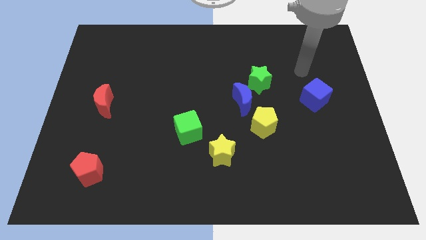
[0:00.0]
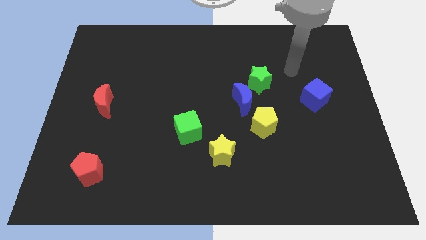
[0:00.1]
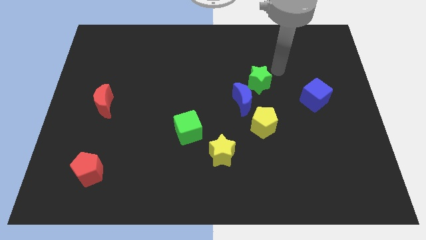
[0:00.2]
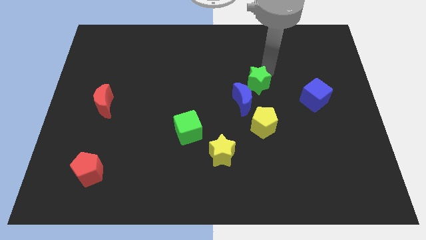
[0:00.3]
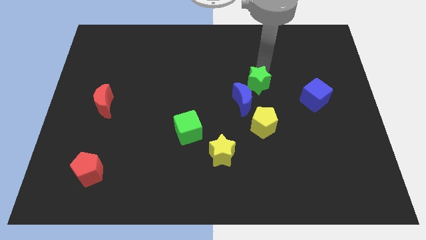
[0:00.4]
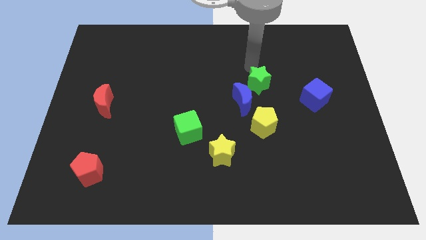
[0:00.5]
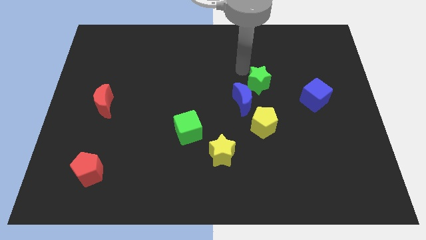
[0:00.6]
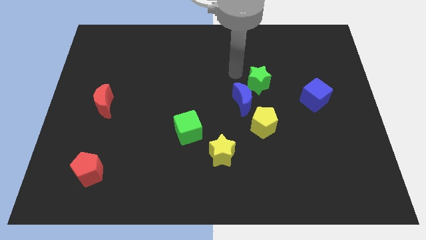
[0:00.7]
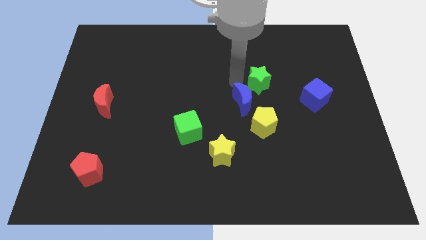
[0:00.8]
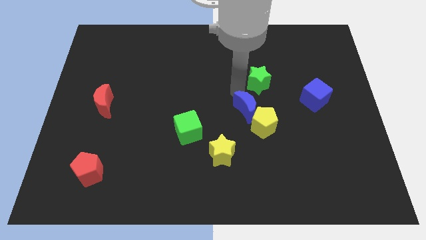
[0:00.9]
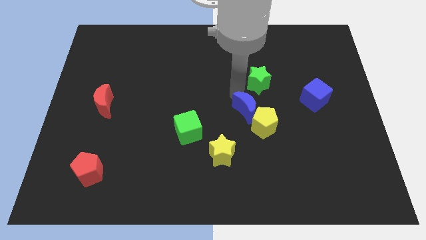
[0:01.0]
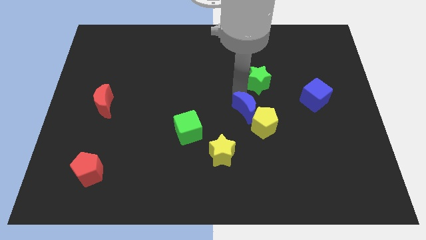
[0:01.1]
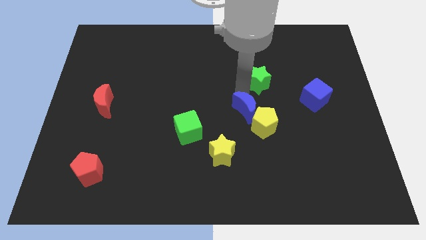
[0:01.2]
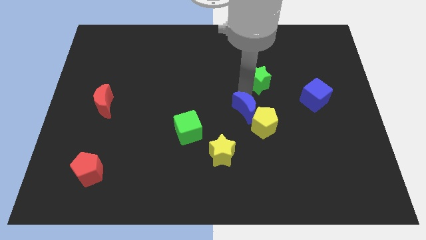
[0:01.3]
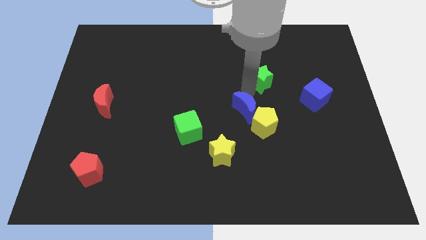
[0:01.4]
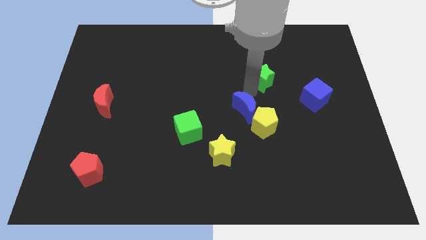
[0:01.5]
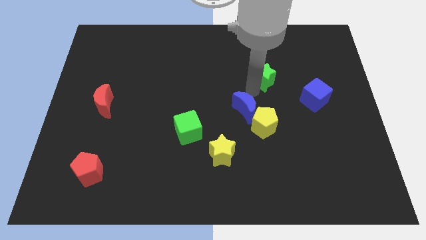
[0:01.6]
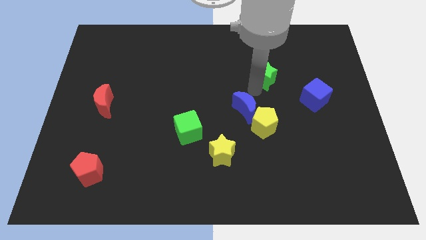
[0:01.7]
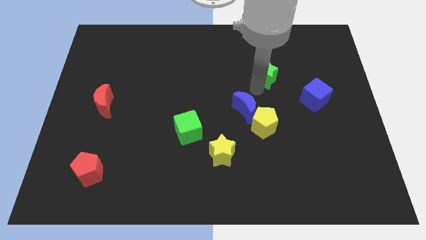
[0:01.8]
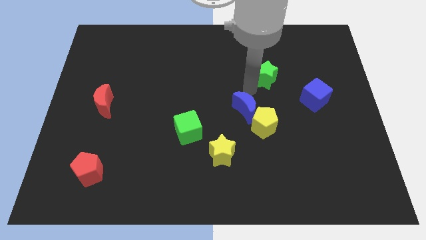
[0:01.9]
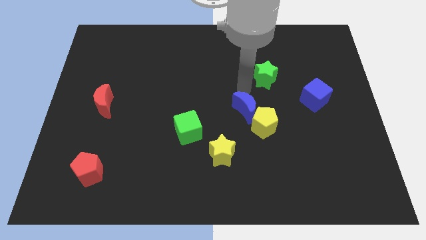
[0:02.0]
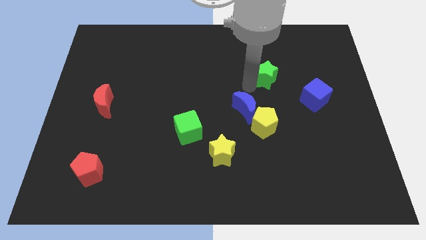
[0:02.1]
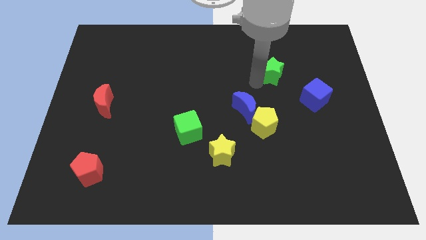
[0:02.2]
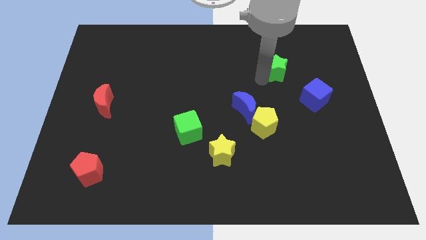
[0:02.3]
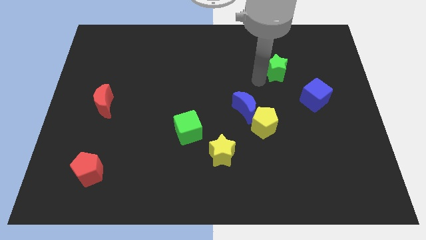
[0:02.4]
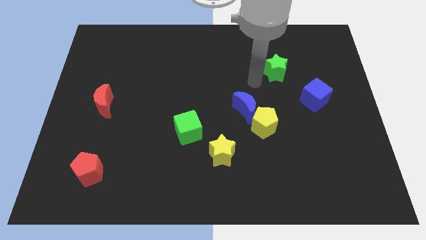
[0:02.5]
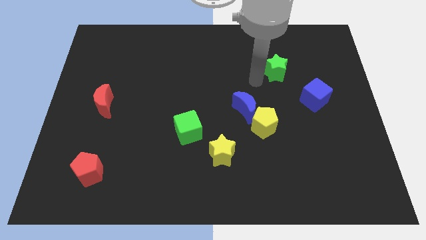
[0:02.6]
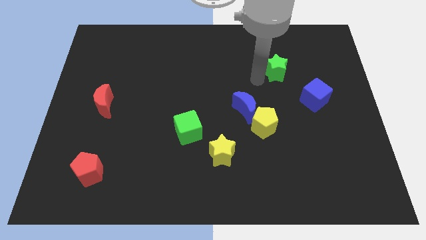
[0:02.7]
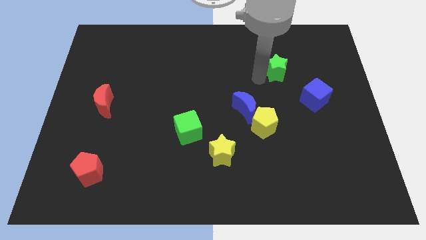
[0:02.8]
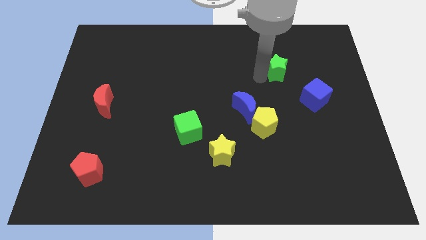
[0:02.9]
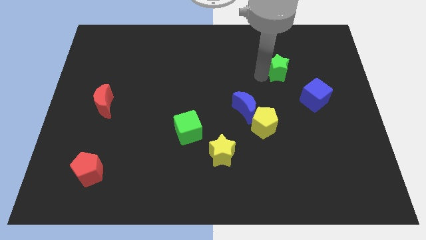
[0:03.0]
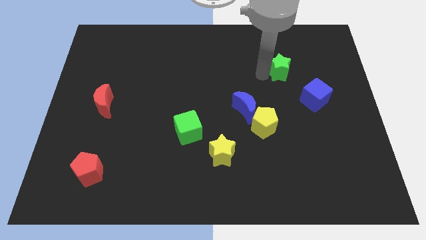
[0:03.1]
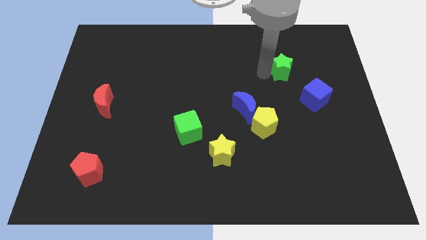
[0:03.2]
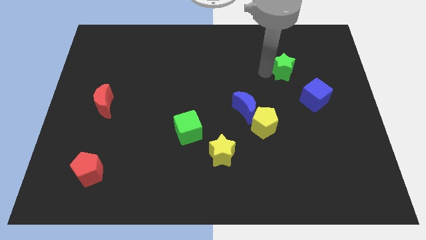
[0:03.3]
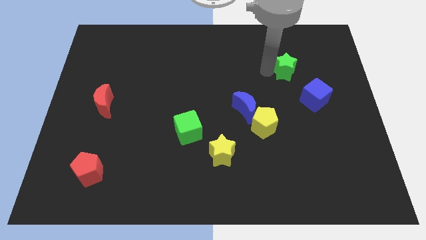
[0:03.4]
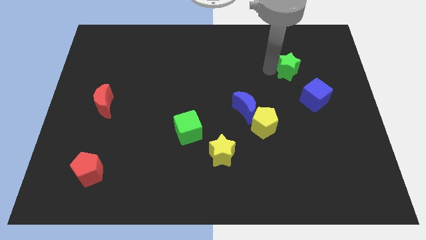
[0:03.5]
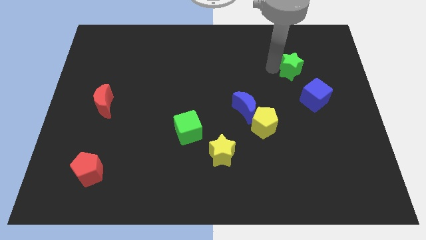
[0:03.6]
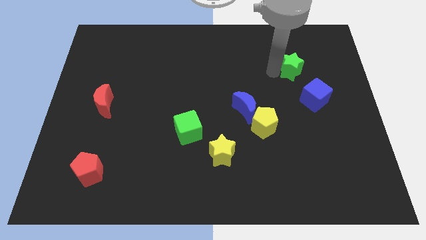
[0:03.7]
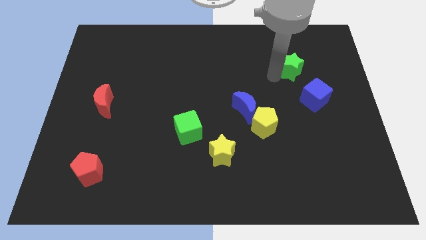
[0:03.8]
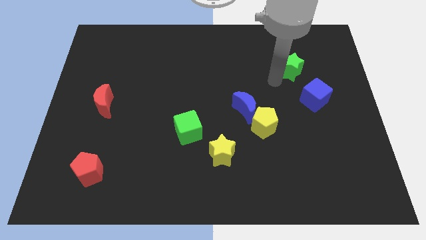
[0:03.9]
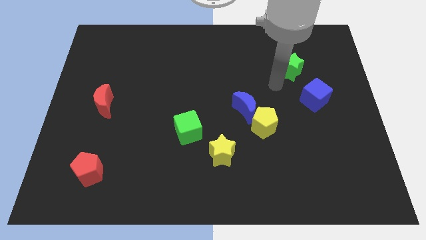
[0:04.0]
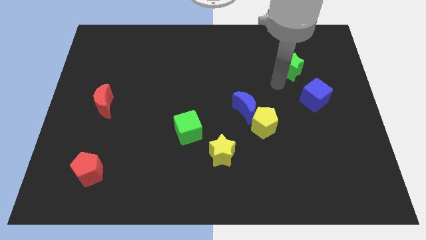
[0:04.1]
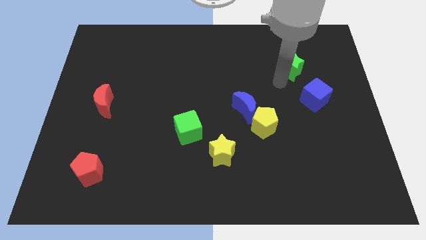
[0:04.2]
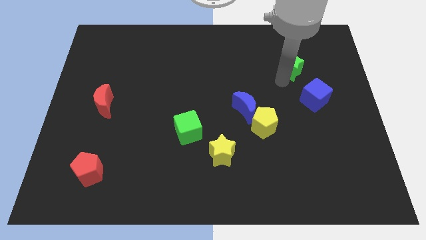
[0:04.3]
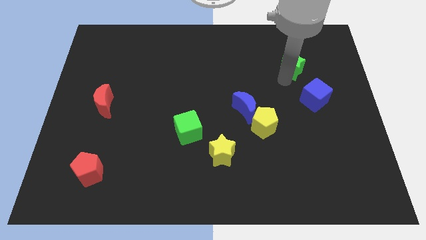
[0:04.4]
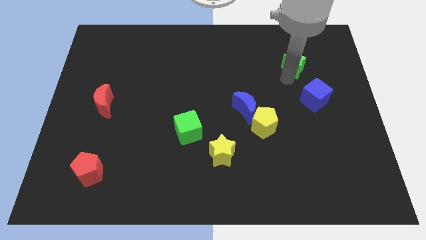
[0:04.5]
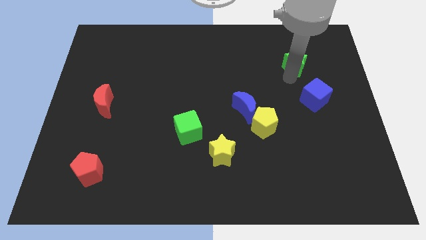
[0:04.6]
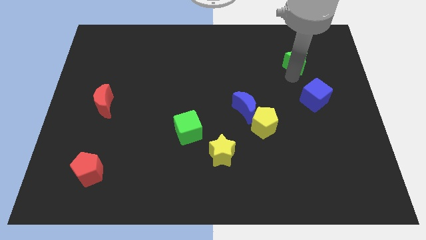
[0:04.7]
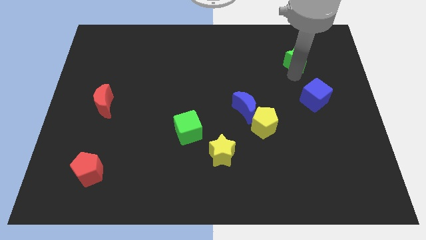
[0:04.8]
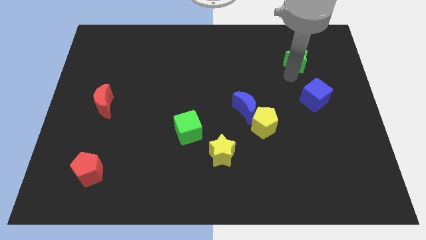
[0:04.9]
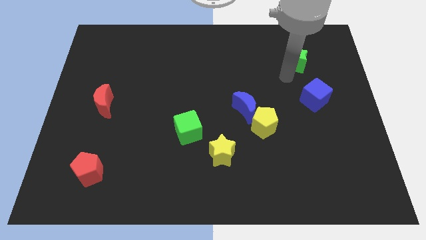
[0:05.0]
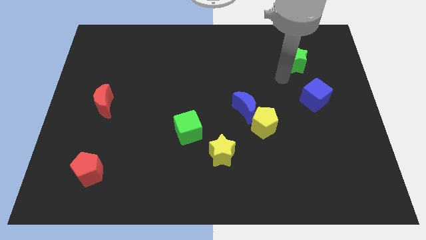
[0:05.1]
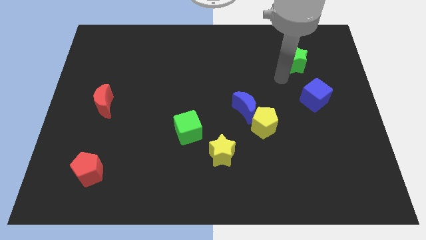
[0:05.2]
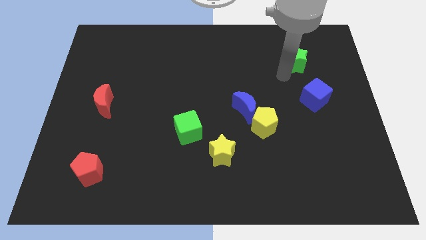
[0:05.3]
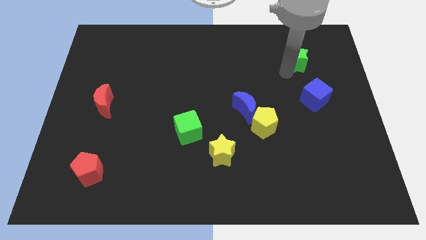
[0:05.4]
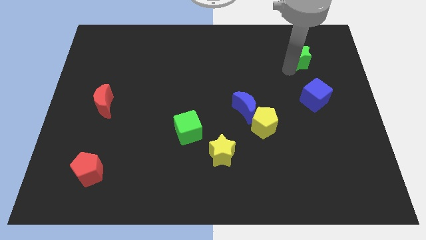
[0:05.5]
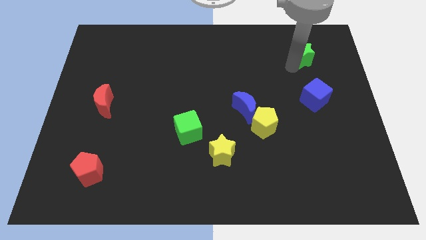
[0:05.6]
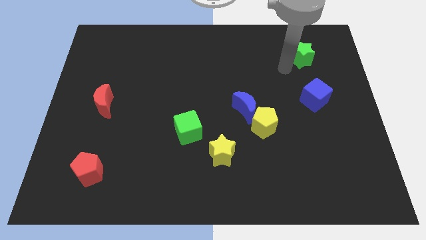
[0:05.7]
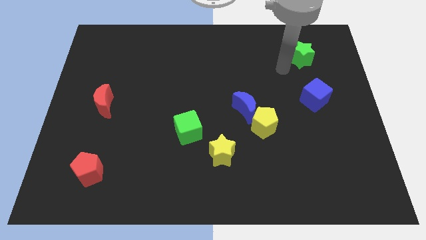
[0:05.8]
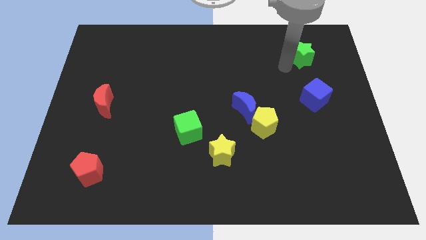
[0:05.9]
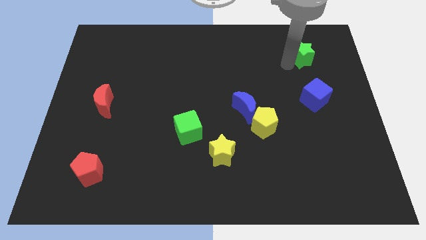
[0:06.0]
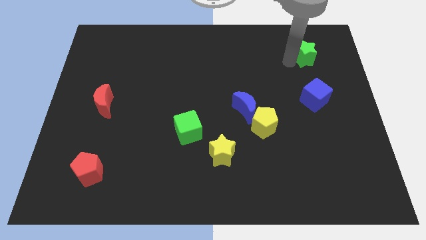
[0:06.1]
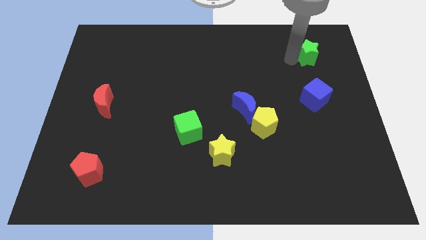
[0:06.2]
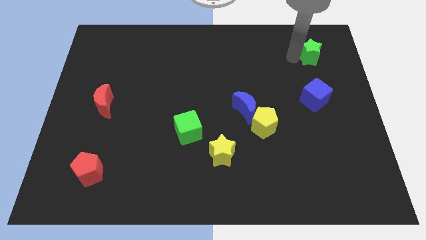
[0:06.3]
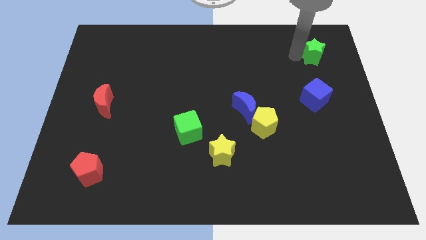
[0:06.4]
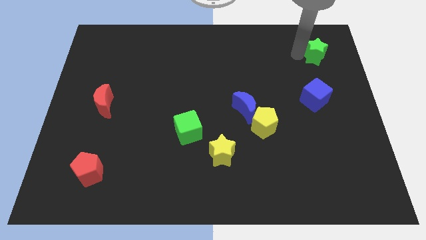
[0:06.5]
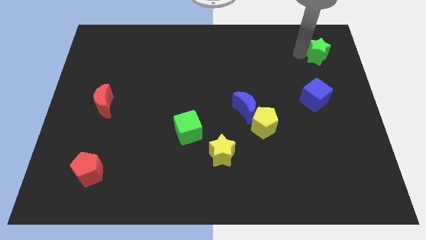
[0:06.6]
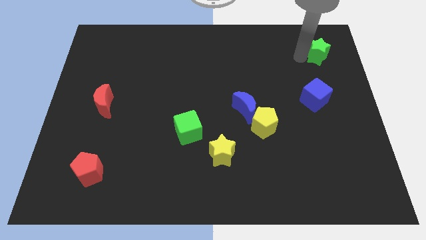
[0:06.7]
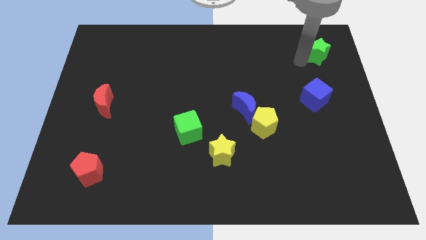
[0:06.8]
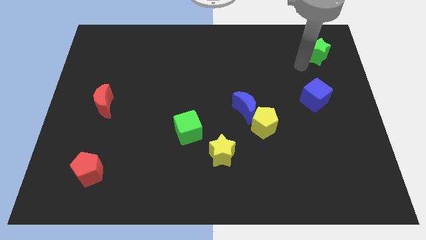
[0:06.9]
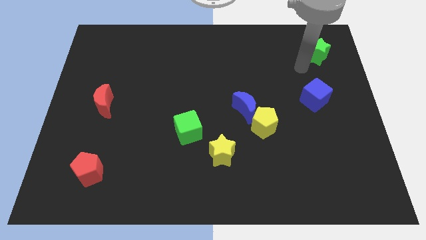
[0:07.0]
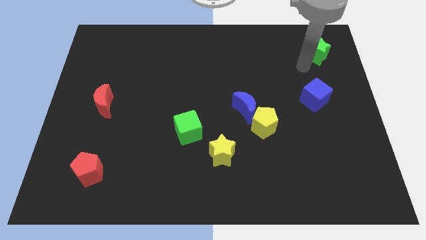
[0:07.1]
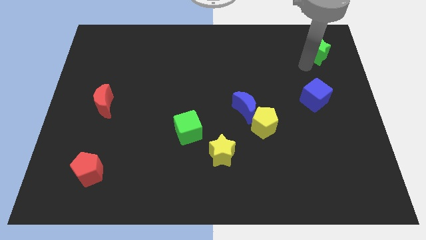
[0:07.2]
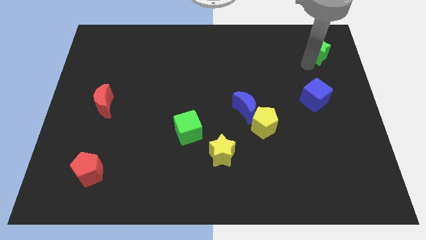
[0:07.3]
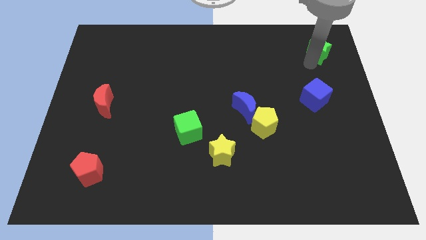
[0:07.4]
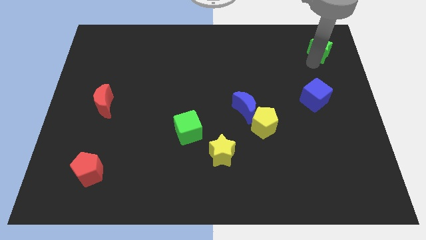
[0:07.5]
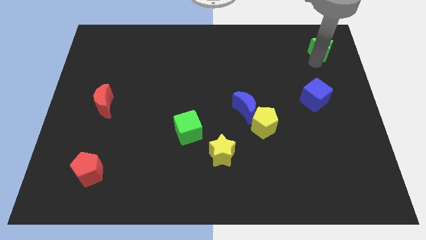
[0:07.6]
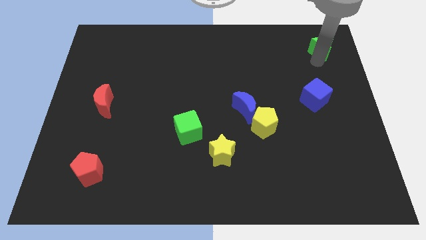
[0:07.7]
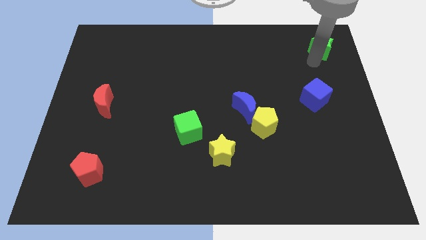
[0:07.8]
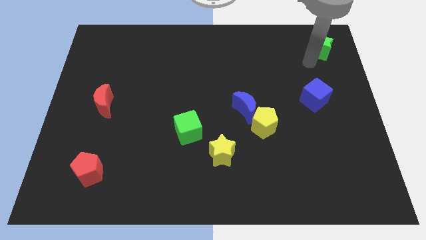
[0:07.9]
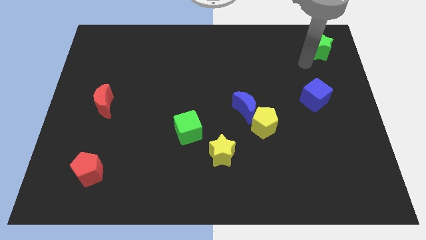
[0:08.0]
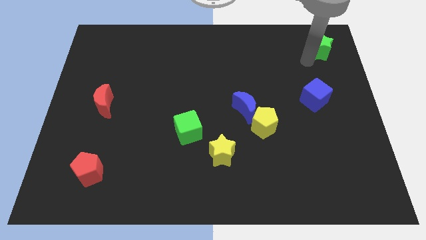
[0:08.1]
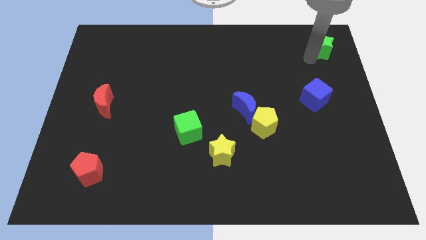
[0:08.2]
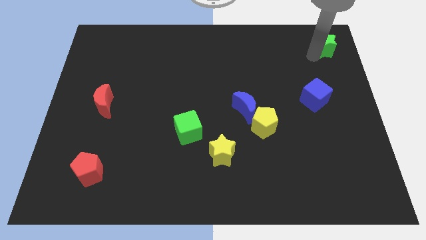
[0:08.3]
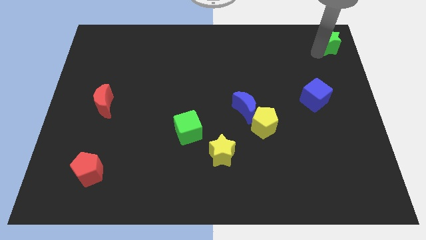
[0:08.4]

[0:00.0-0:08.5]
move the green star to the top right of the board
